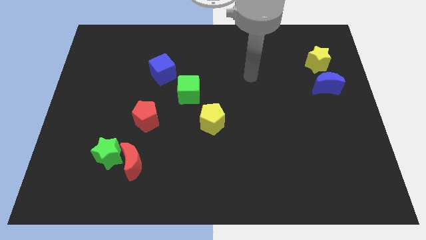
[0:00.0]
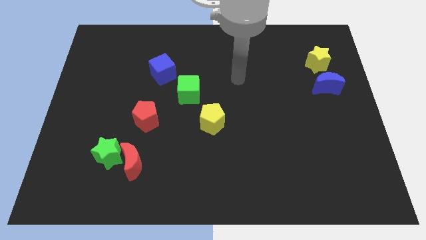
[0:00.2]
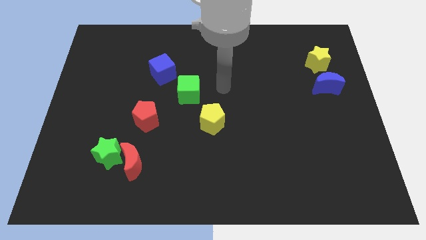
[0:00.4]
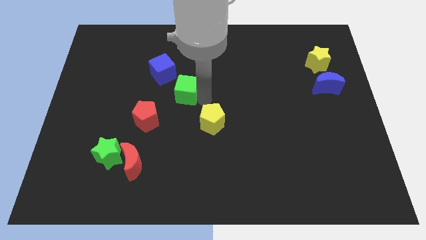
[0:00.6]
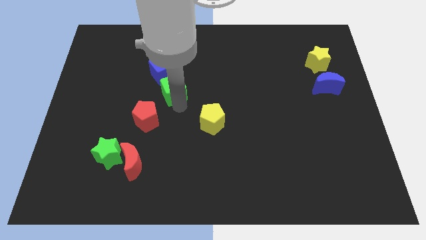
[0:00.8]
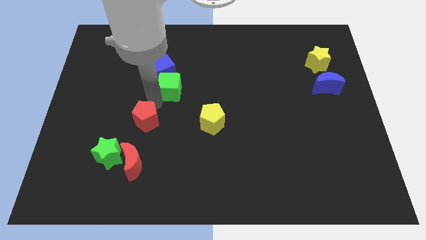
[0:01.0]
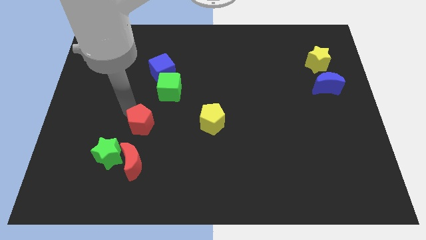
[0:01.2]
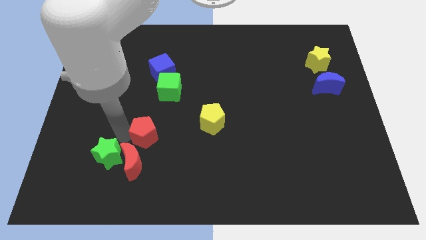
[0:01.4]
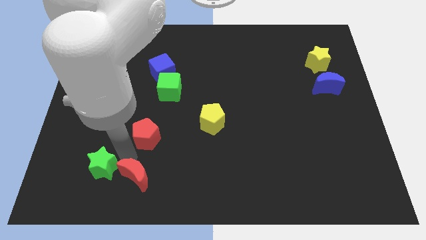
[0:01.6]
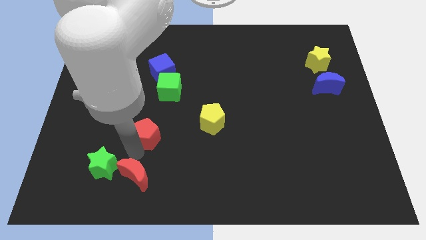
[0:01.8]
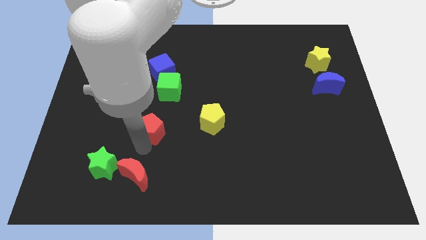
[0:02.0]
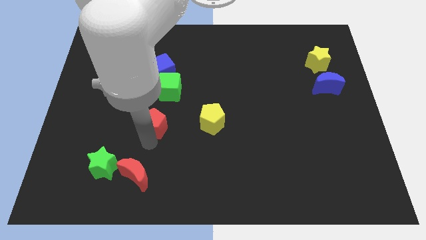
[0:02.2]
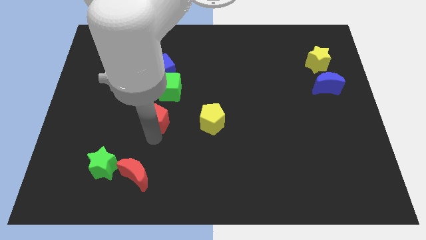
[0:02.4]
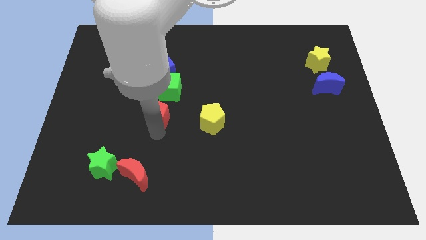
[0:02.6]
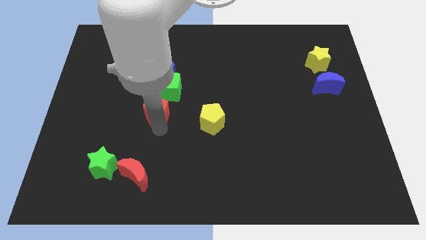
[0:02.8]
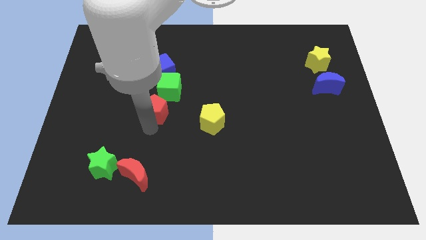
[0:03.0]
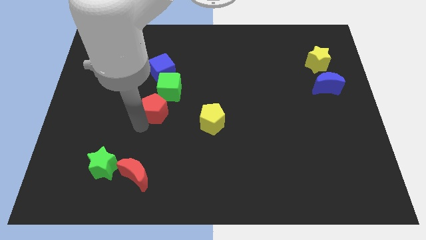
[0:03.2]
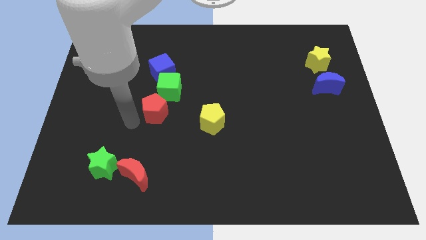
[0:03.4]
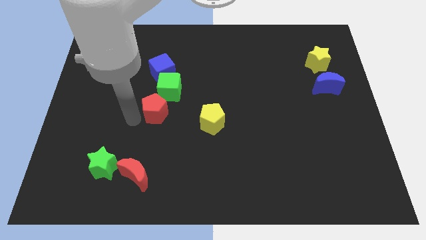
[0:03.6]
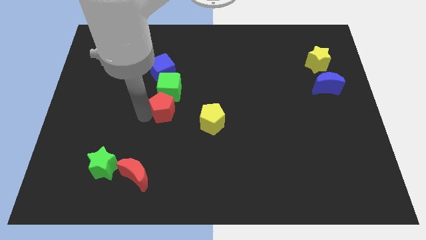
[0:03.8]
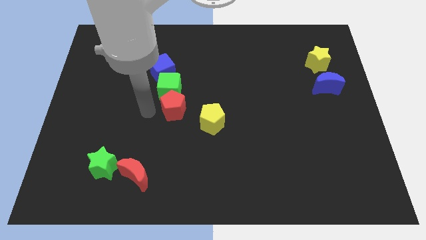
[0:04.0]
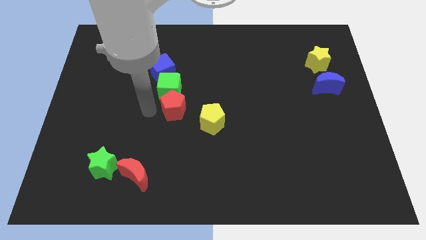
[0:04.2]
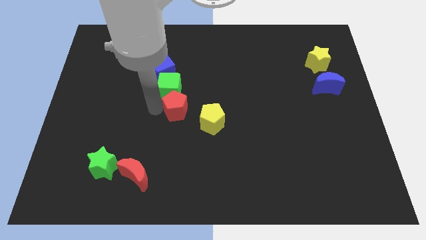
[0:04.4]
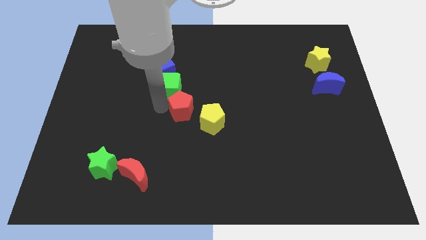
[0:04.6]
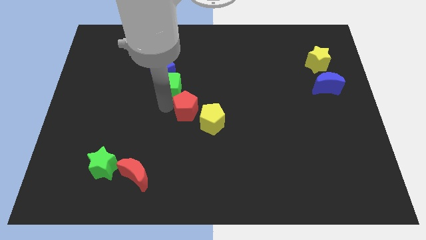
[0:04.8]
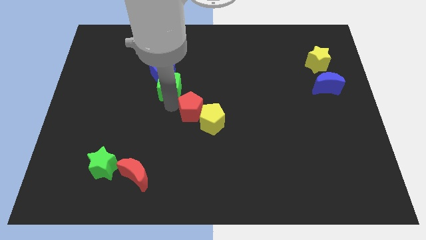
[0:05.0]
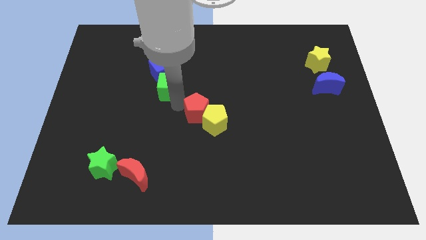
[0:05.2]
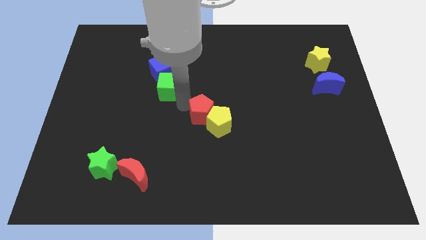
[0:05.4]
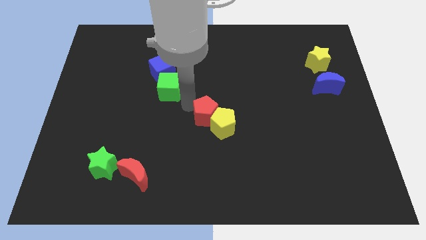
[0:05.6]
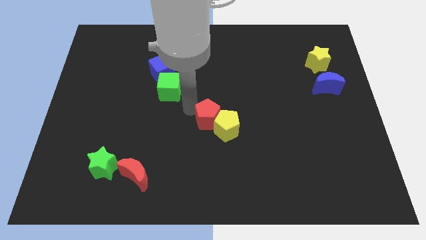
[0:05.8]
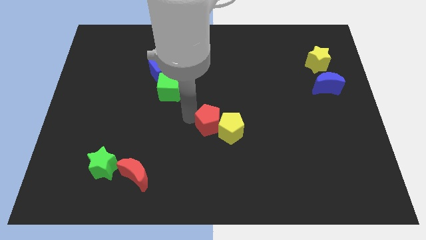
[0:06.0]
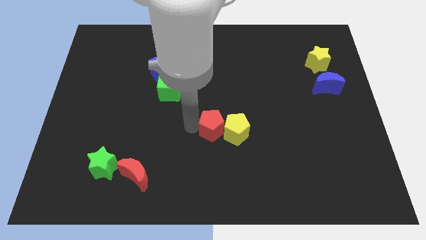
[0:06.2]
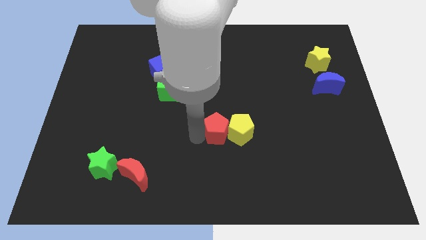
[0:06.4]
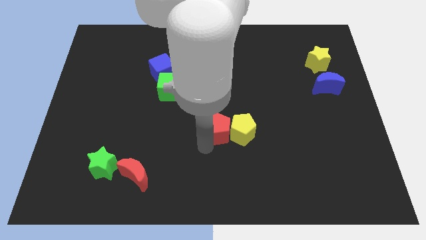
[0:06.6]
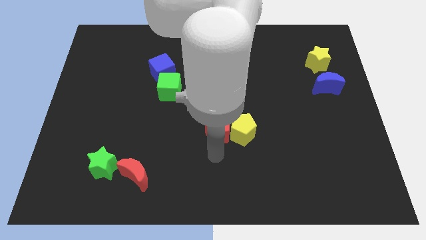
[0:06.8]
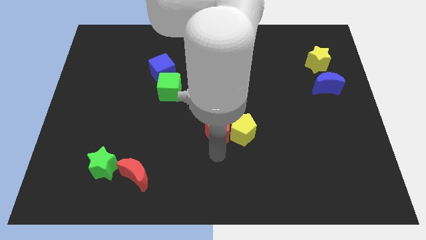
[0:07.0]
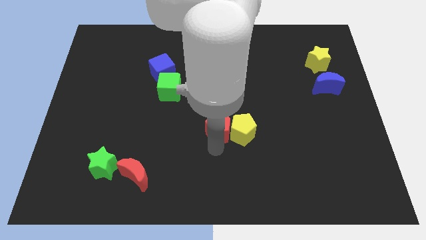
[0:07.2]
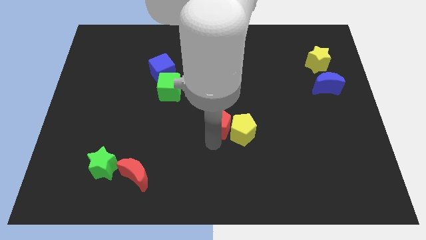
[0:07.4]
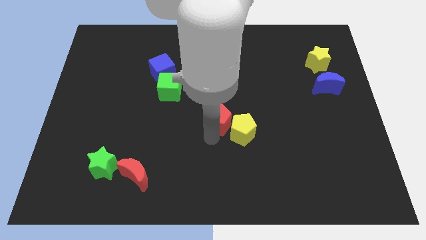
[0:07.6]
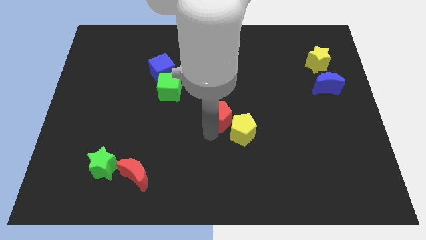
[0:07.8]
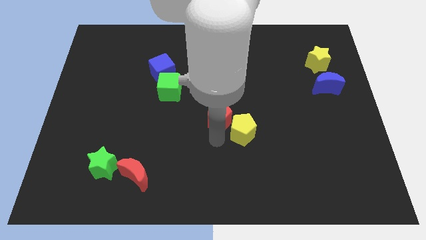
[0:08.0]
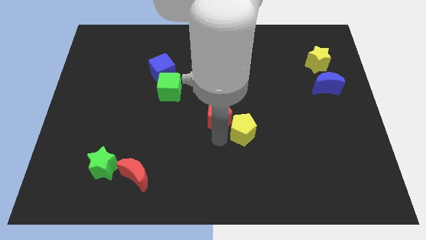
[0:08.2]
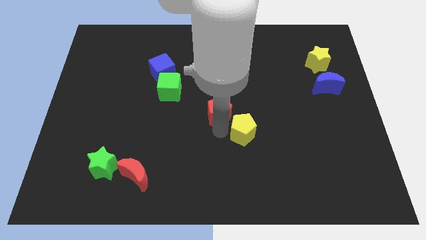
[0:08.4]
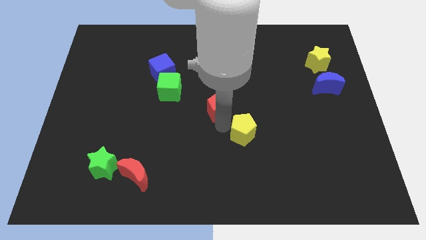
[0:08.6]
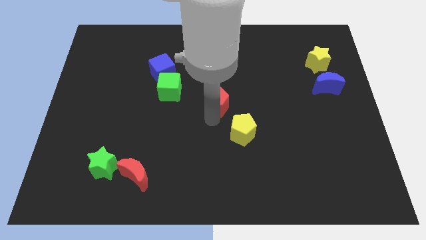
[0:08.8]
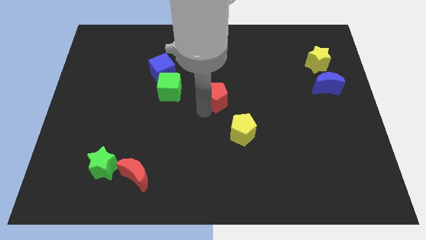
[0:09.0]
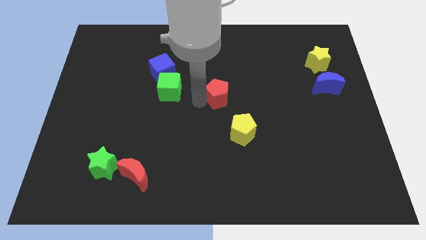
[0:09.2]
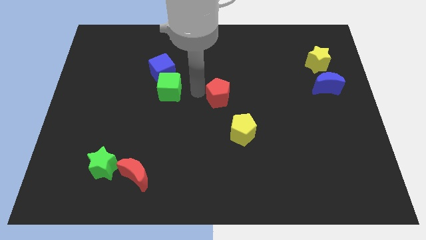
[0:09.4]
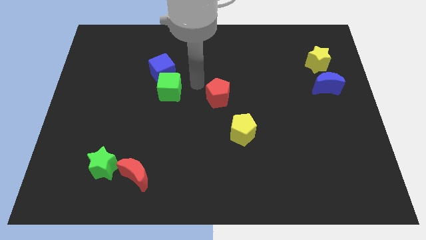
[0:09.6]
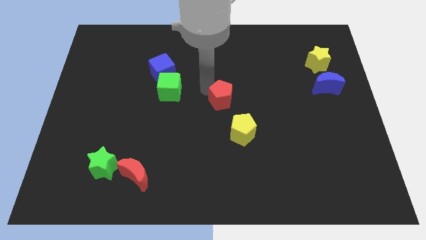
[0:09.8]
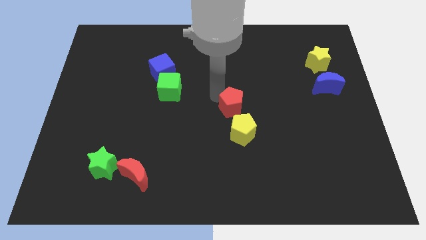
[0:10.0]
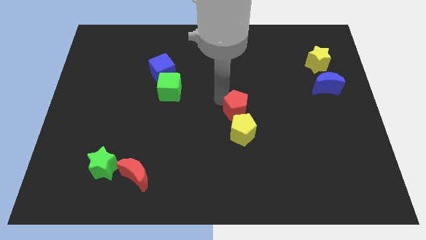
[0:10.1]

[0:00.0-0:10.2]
move the red pentagon to the right

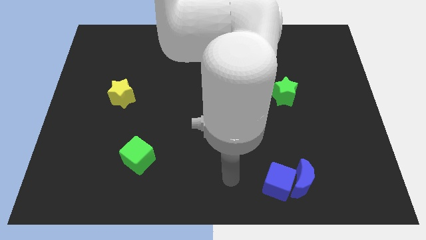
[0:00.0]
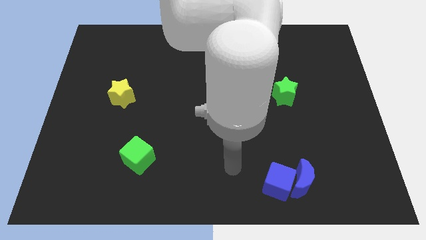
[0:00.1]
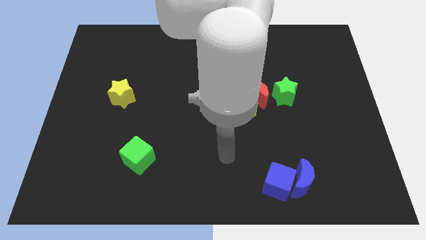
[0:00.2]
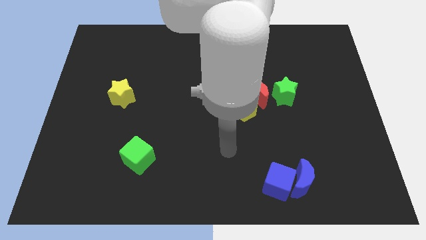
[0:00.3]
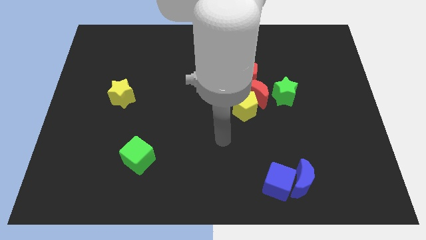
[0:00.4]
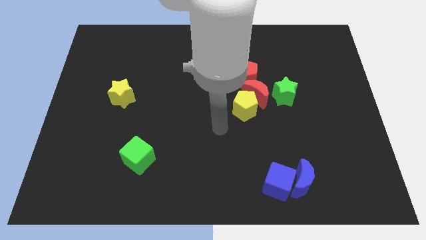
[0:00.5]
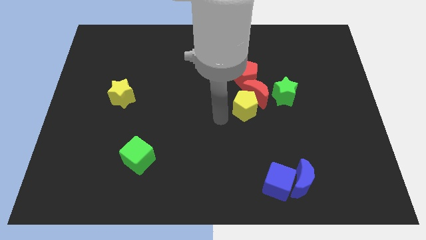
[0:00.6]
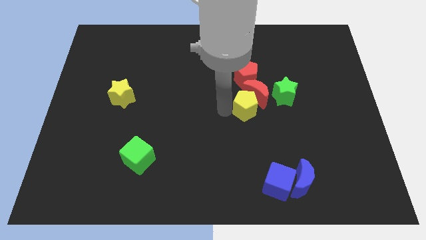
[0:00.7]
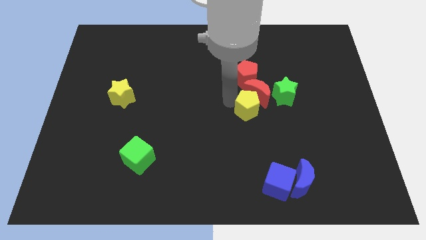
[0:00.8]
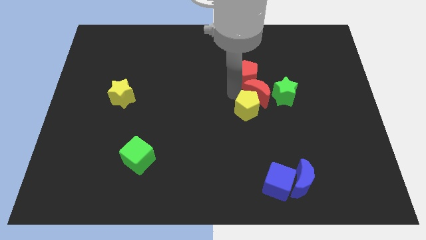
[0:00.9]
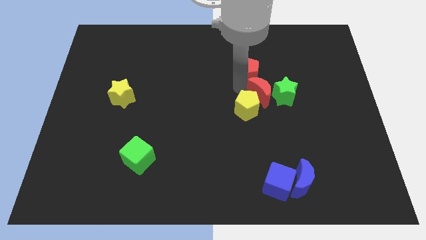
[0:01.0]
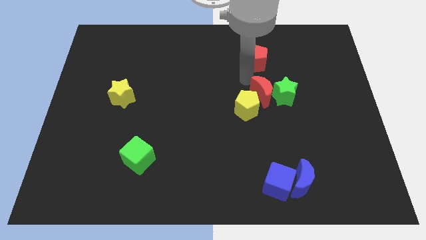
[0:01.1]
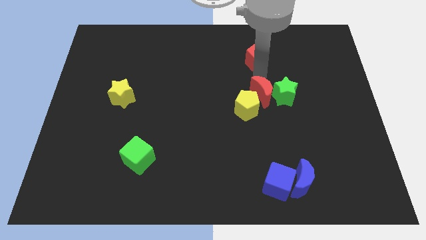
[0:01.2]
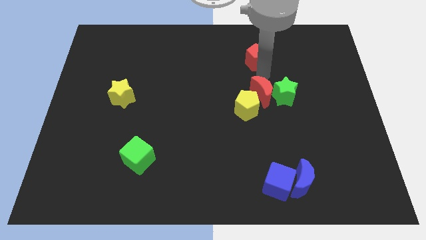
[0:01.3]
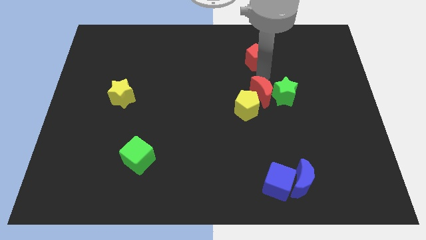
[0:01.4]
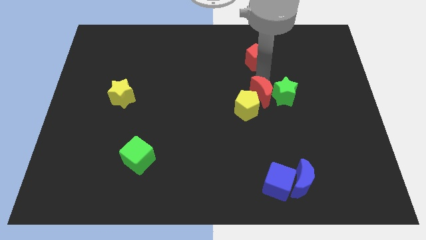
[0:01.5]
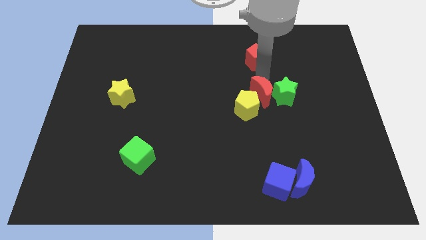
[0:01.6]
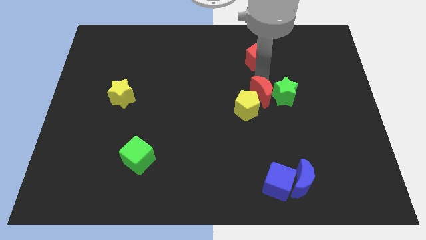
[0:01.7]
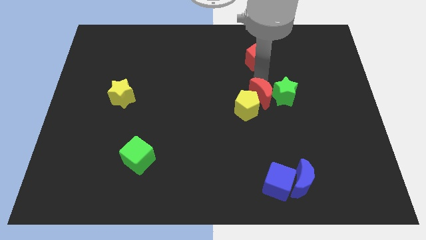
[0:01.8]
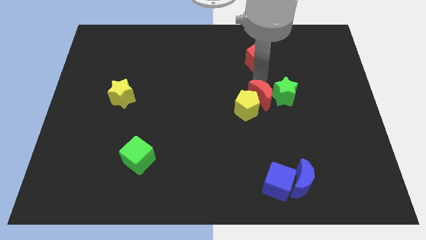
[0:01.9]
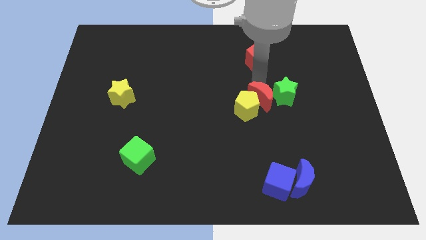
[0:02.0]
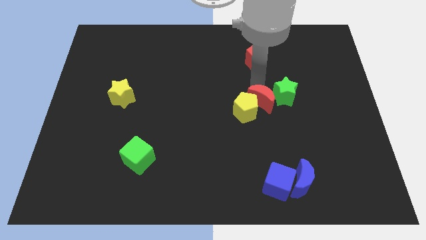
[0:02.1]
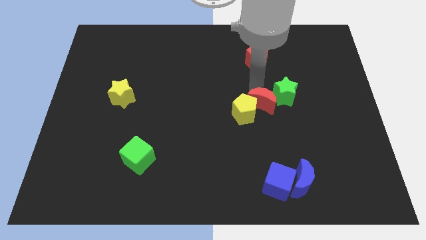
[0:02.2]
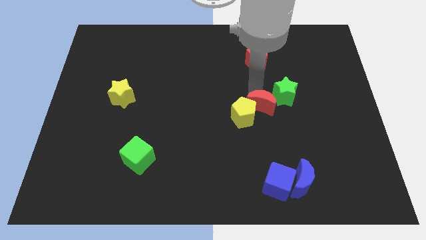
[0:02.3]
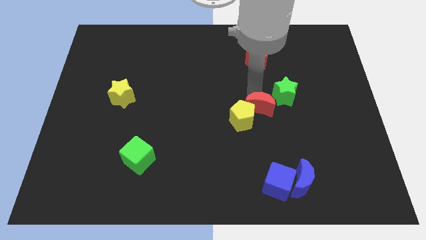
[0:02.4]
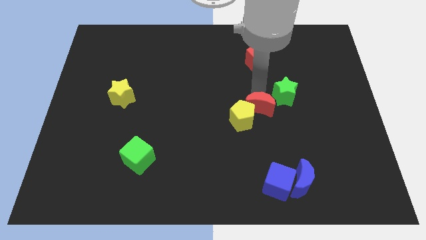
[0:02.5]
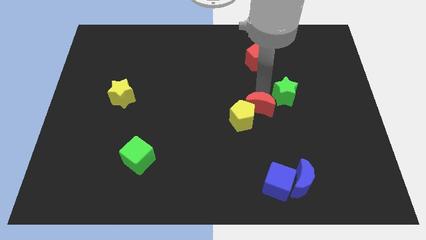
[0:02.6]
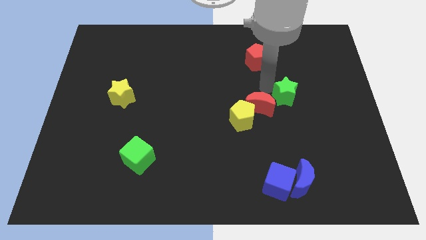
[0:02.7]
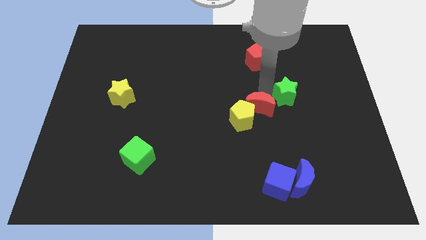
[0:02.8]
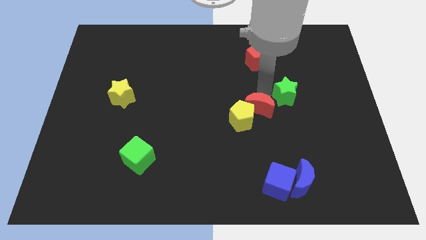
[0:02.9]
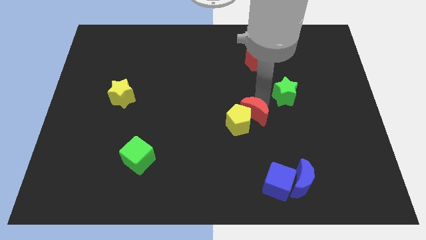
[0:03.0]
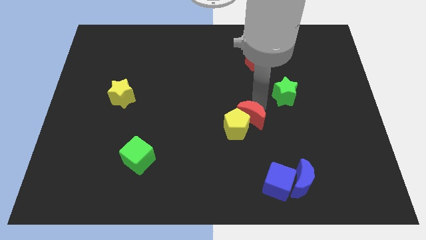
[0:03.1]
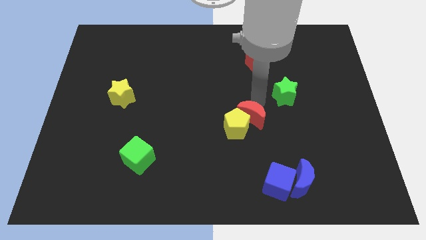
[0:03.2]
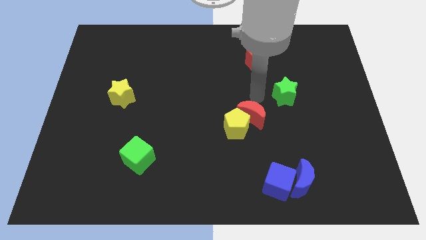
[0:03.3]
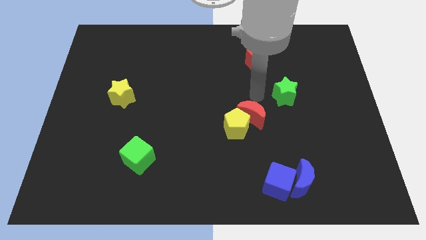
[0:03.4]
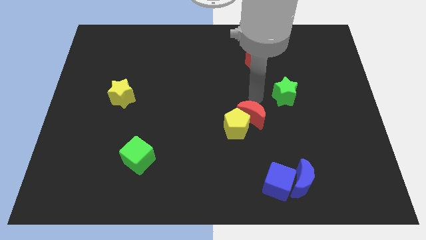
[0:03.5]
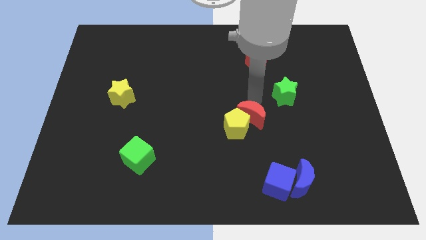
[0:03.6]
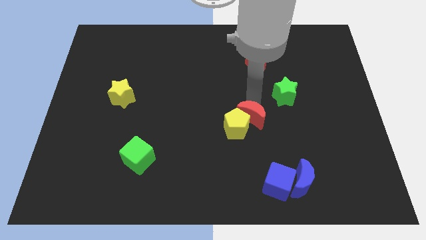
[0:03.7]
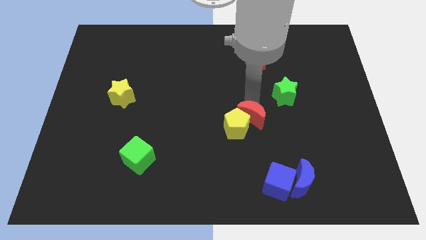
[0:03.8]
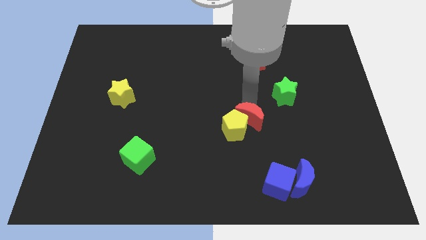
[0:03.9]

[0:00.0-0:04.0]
slide the red moon a little down
